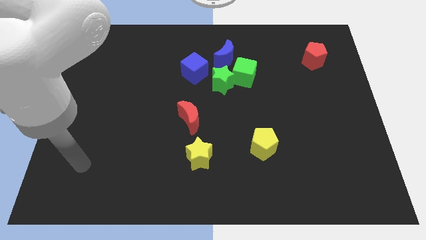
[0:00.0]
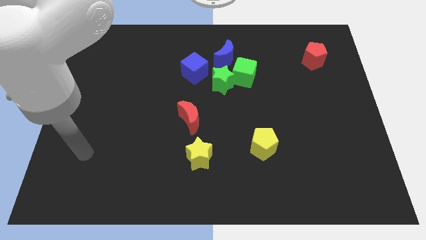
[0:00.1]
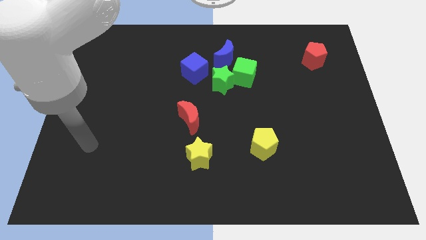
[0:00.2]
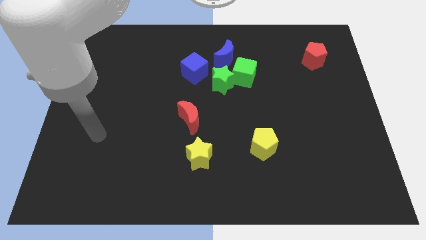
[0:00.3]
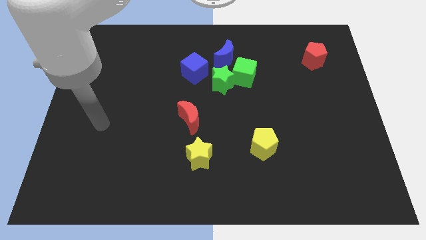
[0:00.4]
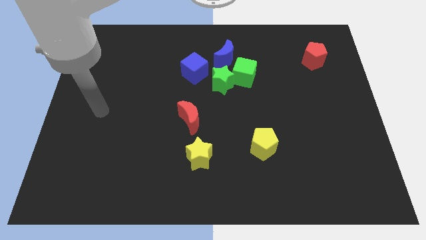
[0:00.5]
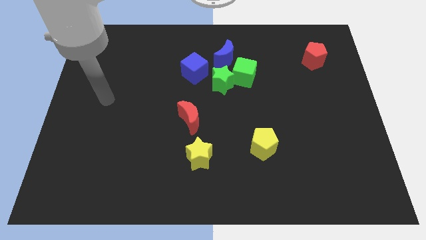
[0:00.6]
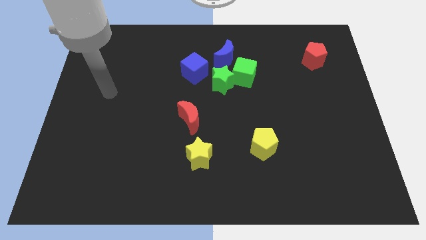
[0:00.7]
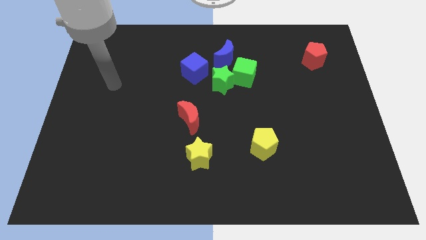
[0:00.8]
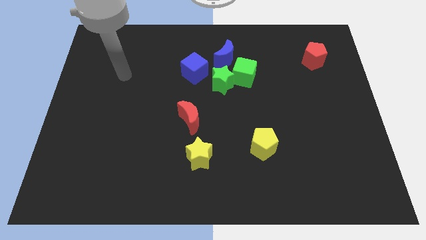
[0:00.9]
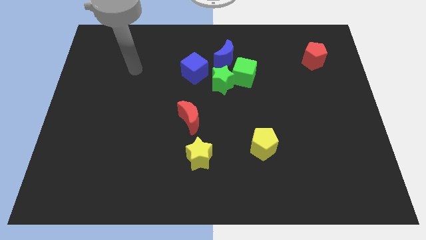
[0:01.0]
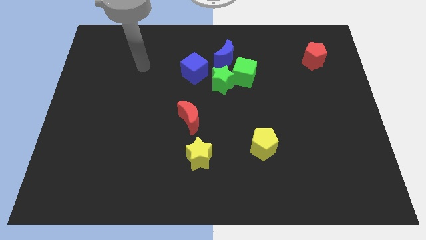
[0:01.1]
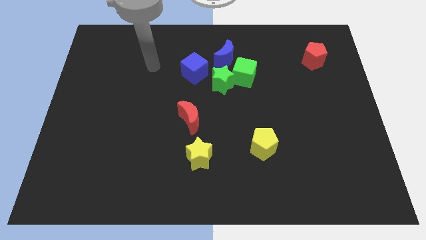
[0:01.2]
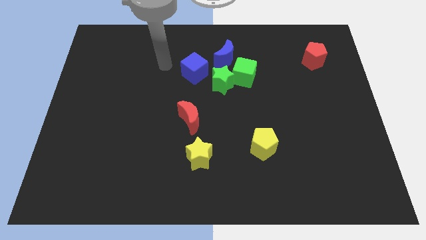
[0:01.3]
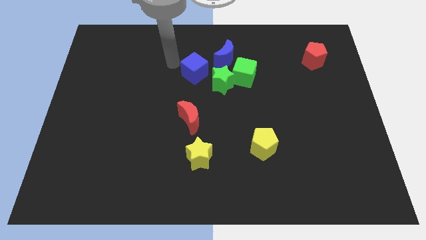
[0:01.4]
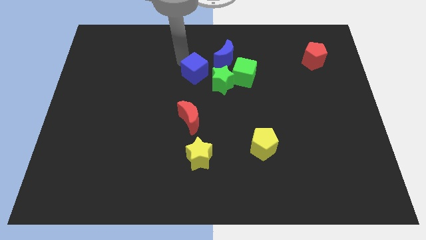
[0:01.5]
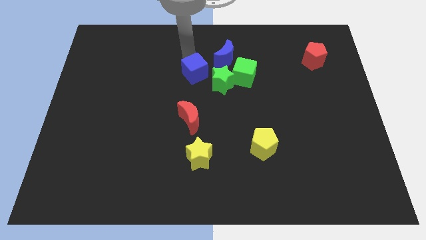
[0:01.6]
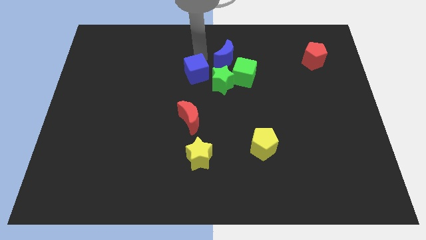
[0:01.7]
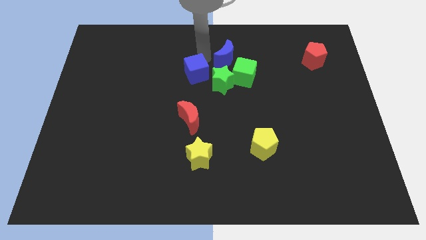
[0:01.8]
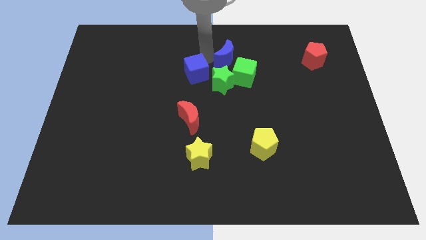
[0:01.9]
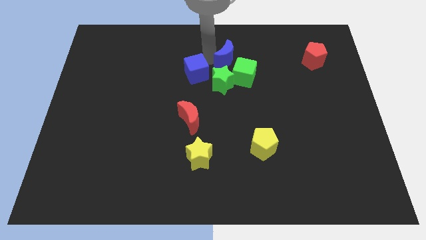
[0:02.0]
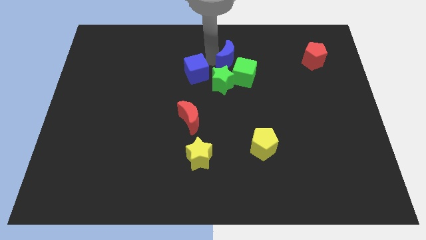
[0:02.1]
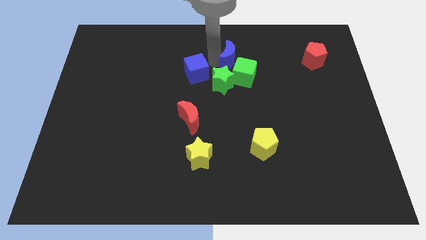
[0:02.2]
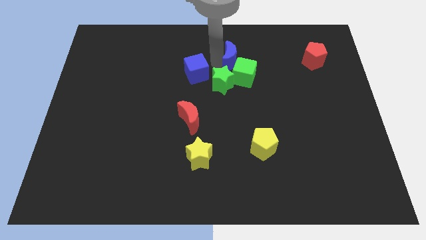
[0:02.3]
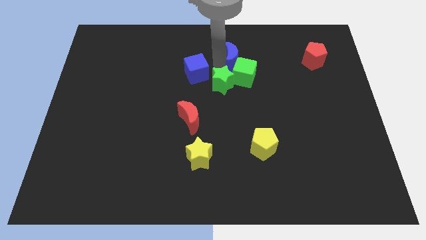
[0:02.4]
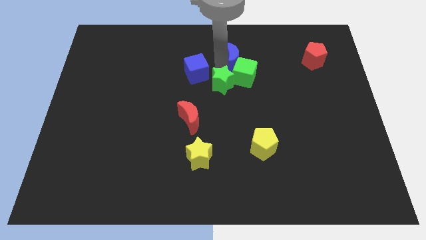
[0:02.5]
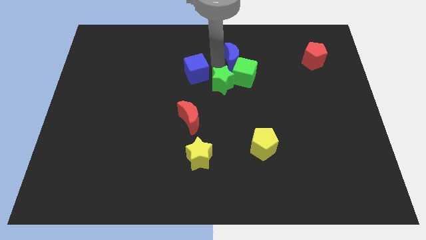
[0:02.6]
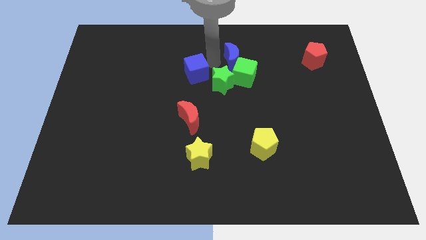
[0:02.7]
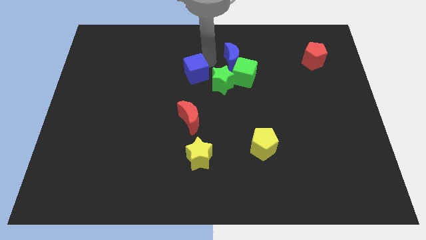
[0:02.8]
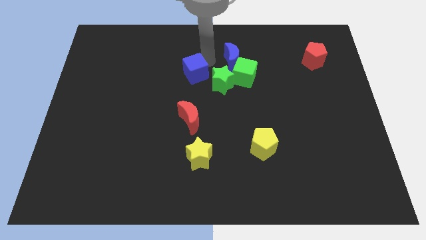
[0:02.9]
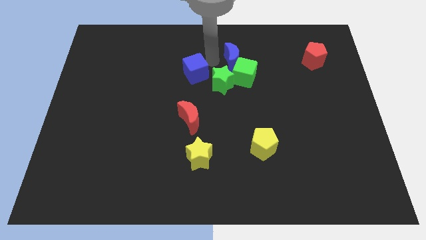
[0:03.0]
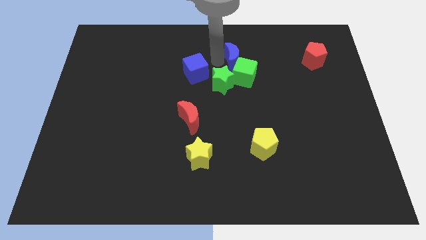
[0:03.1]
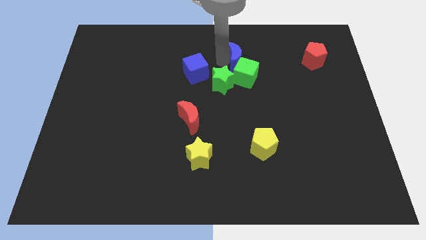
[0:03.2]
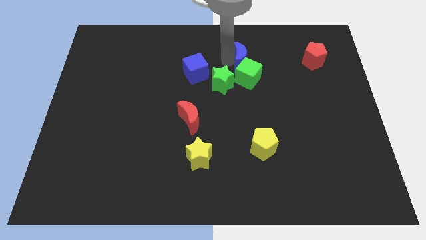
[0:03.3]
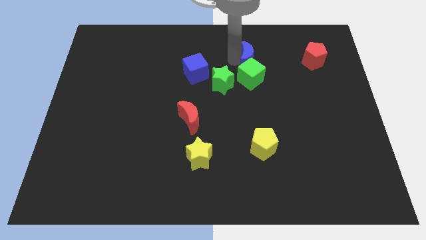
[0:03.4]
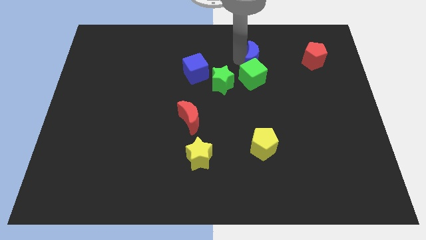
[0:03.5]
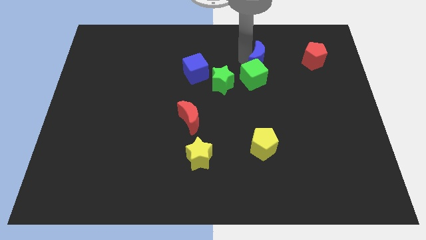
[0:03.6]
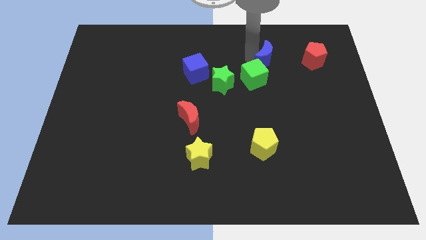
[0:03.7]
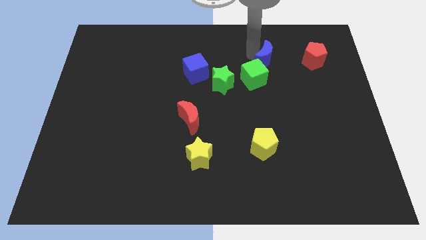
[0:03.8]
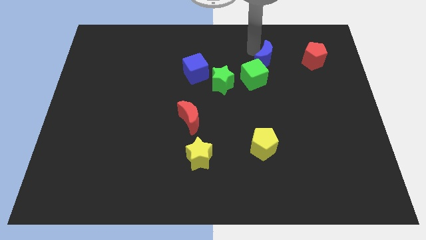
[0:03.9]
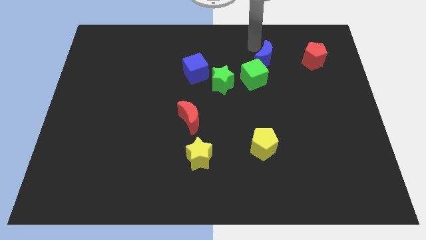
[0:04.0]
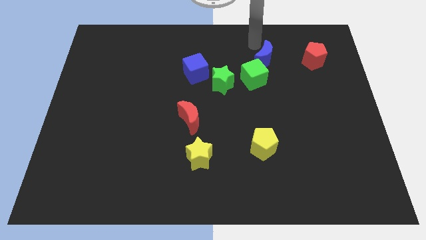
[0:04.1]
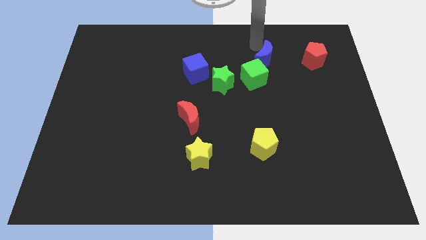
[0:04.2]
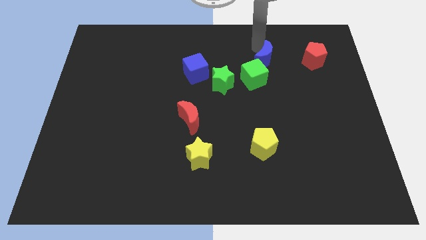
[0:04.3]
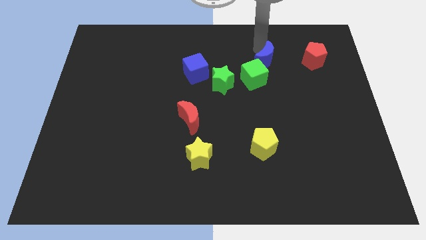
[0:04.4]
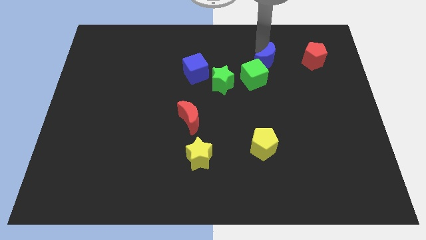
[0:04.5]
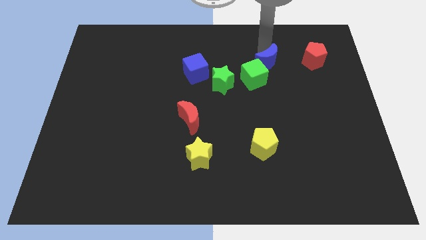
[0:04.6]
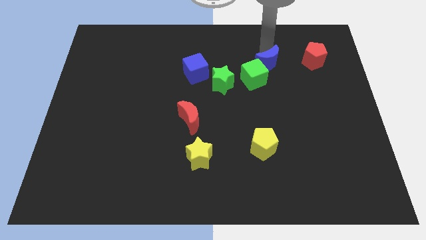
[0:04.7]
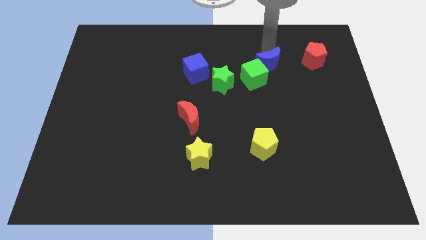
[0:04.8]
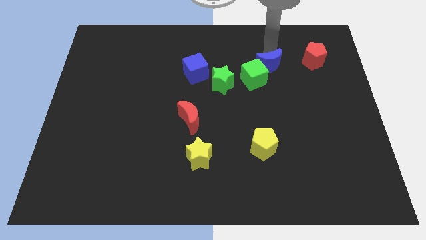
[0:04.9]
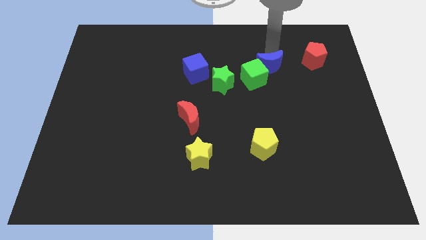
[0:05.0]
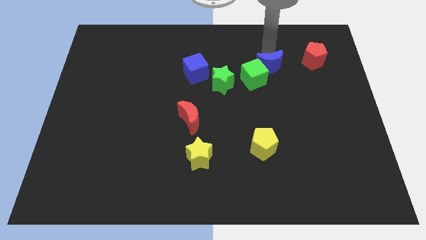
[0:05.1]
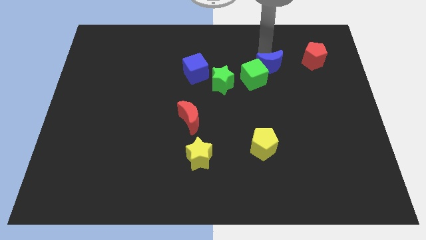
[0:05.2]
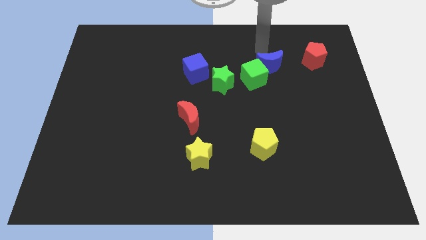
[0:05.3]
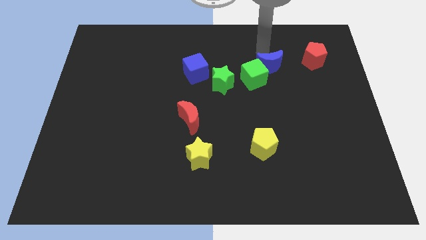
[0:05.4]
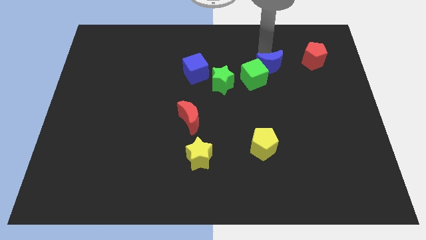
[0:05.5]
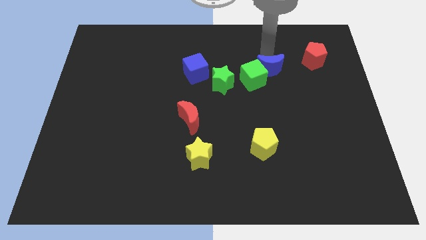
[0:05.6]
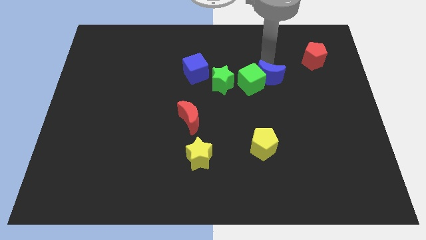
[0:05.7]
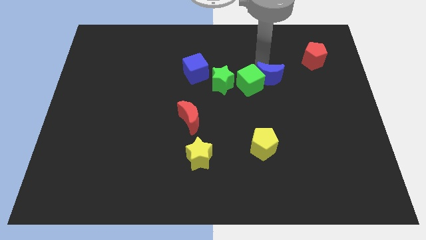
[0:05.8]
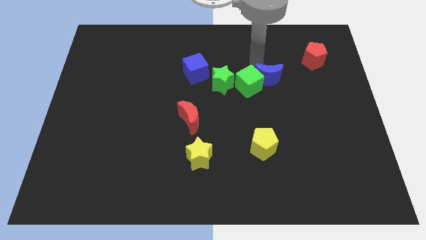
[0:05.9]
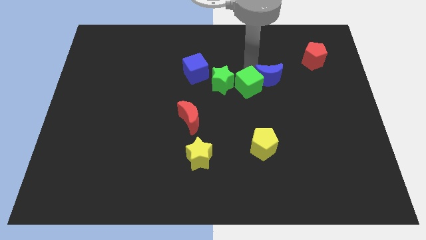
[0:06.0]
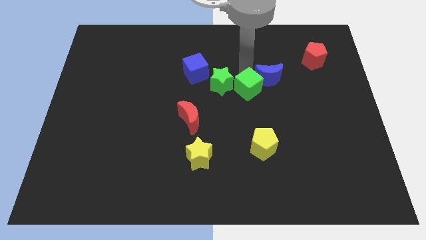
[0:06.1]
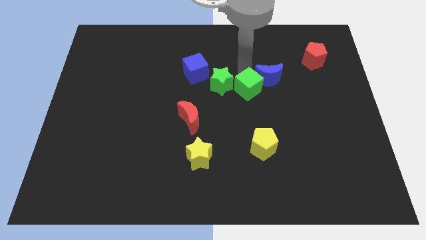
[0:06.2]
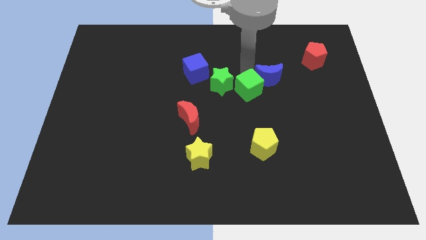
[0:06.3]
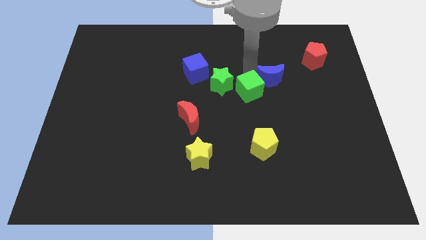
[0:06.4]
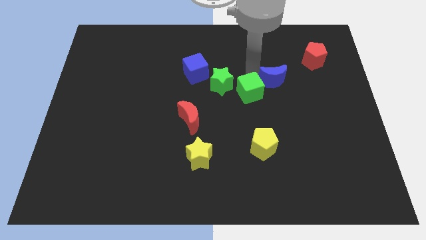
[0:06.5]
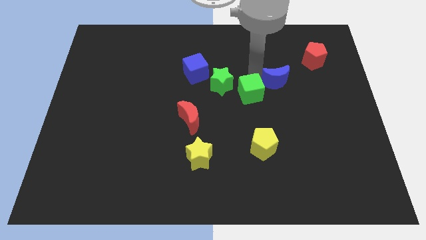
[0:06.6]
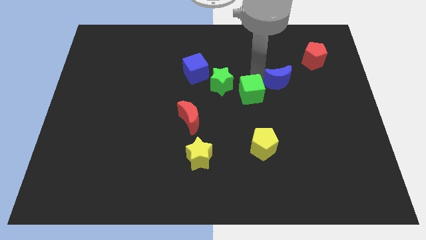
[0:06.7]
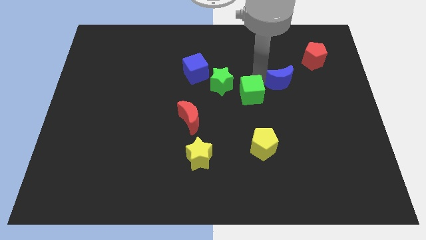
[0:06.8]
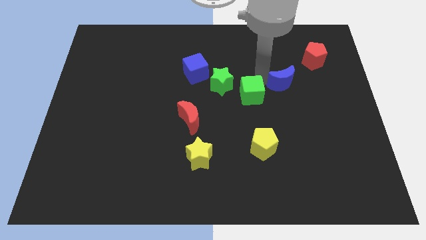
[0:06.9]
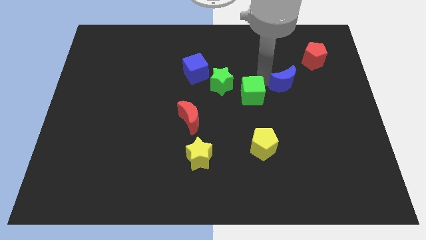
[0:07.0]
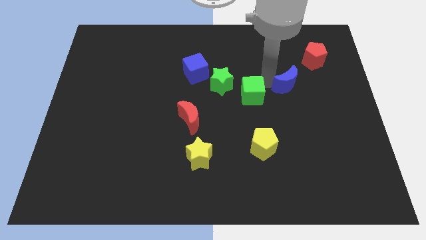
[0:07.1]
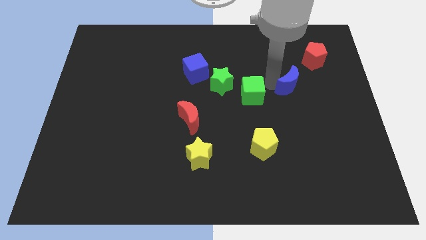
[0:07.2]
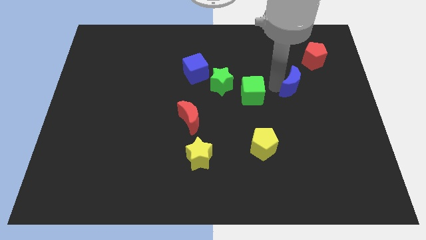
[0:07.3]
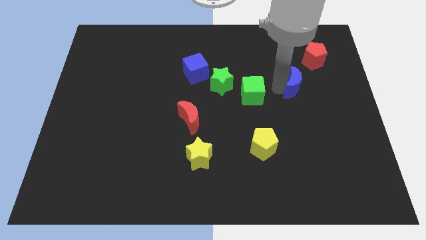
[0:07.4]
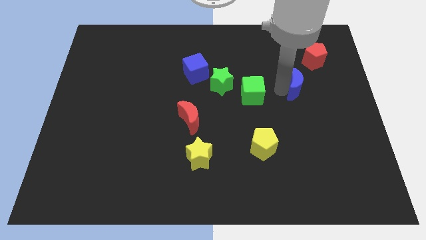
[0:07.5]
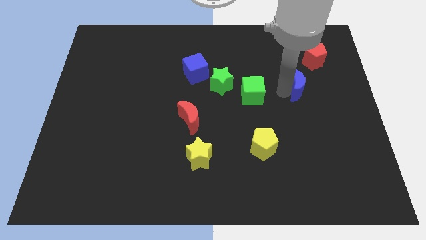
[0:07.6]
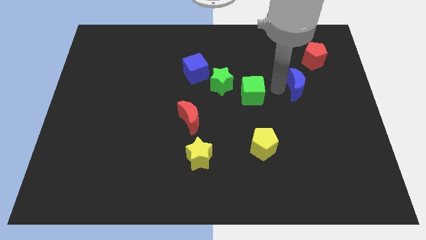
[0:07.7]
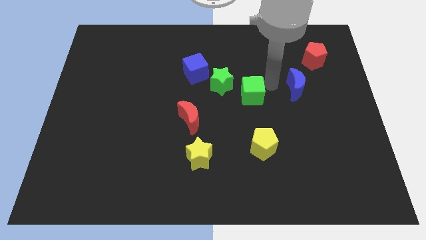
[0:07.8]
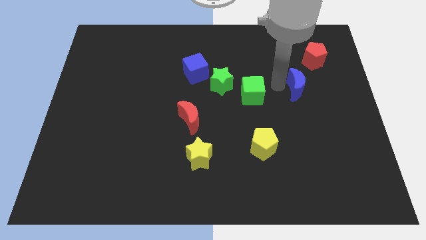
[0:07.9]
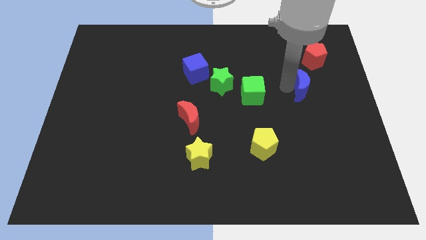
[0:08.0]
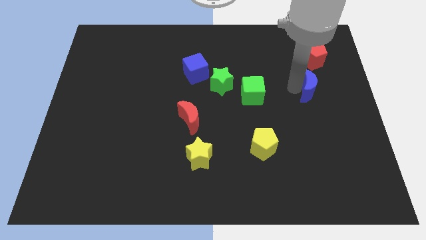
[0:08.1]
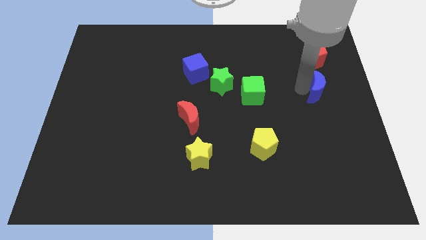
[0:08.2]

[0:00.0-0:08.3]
slide the blue moon to the right side of the board
